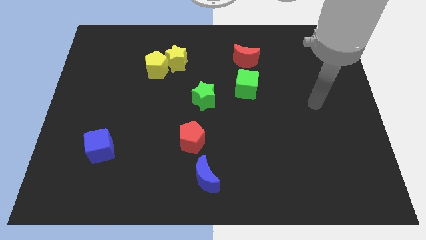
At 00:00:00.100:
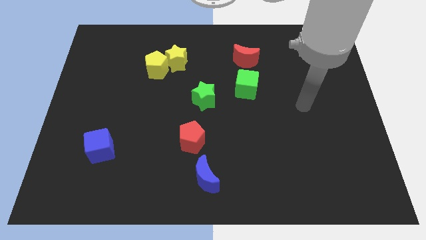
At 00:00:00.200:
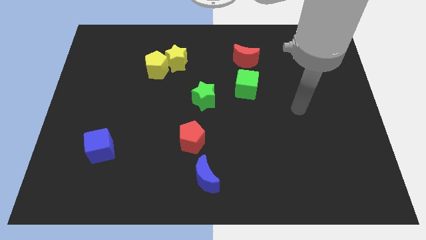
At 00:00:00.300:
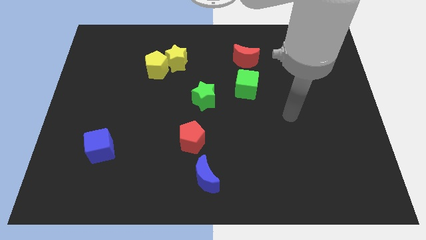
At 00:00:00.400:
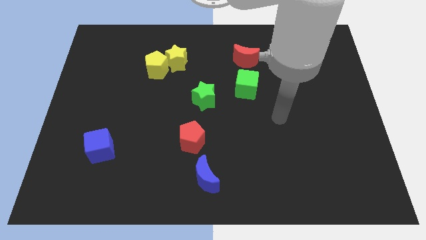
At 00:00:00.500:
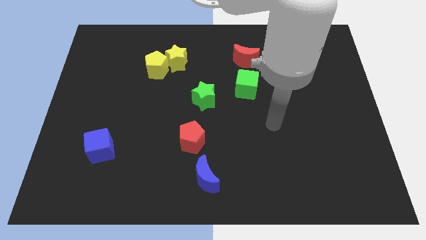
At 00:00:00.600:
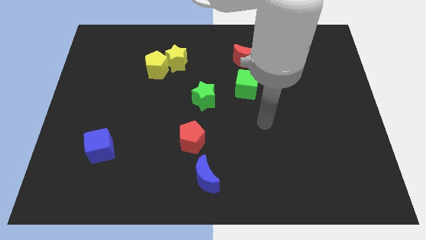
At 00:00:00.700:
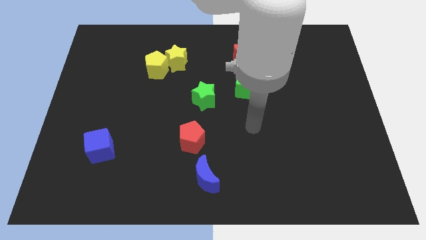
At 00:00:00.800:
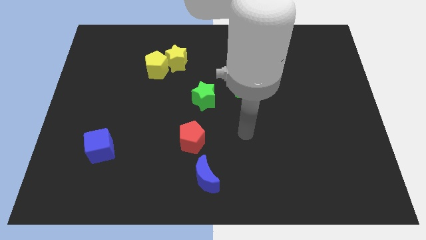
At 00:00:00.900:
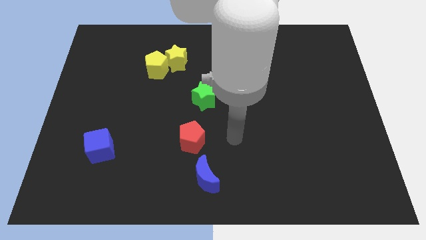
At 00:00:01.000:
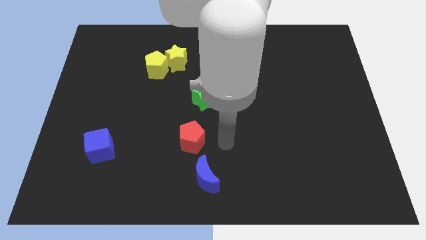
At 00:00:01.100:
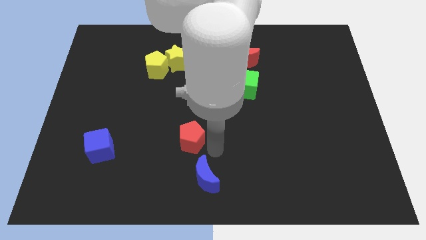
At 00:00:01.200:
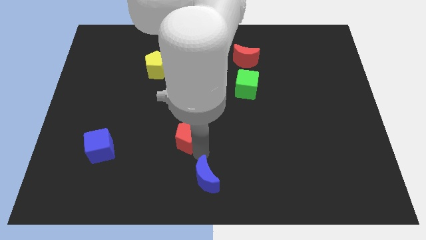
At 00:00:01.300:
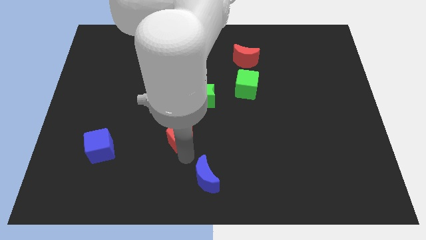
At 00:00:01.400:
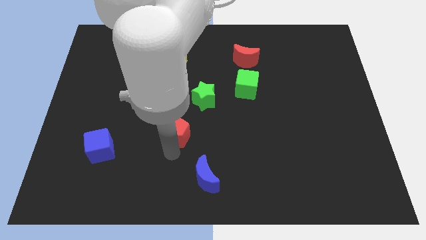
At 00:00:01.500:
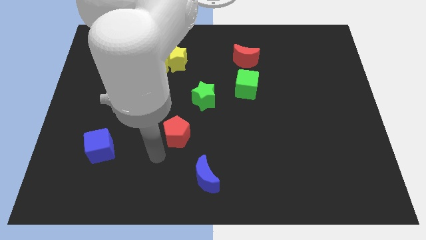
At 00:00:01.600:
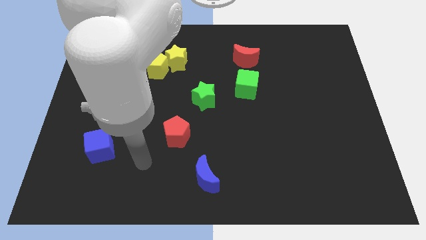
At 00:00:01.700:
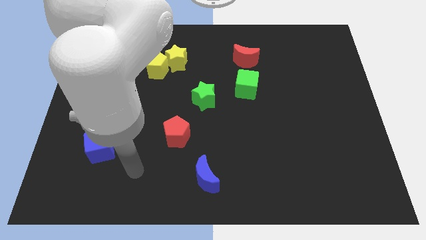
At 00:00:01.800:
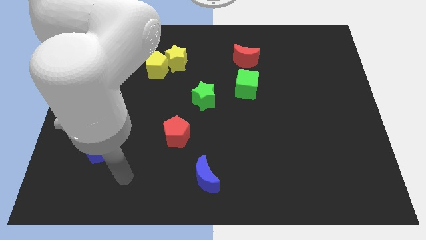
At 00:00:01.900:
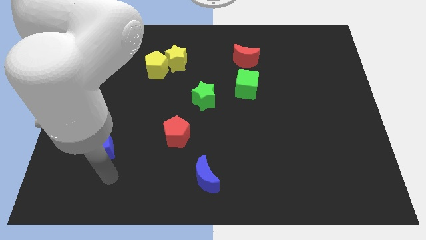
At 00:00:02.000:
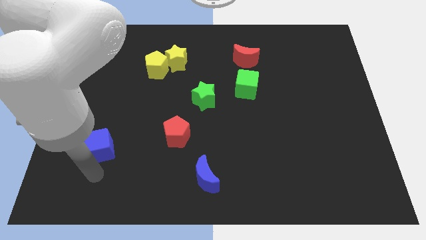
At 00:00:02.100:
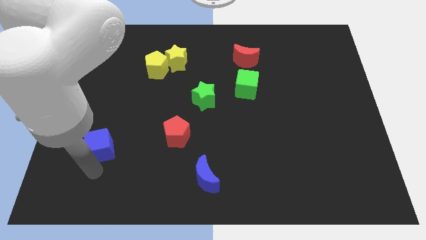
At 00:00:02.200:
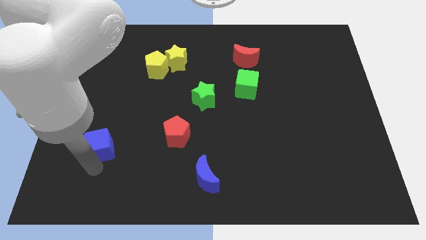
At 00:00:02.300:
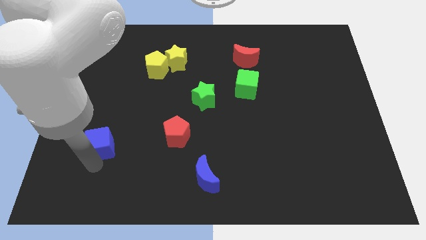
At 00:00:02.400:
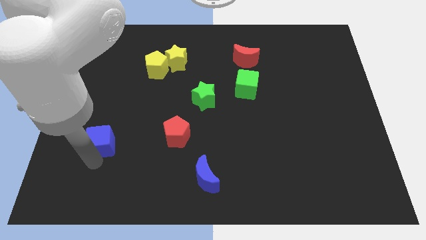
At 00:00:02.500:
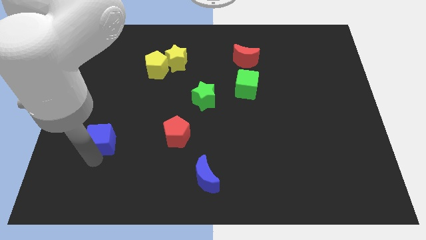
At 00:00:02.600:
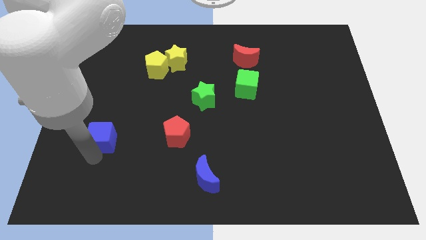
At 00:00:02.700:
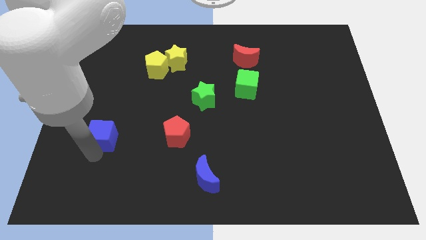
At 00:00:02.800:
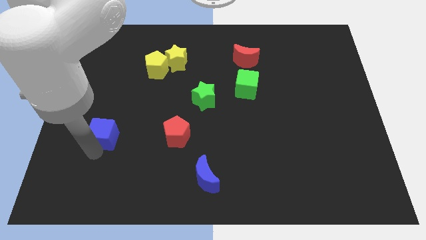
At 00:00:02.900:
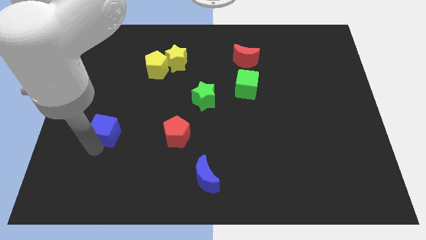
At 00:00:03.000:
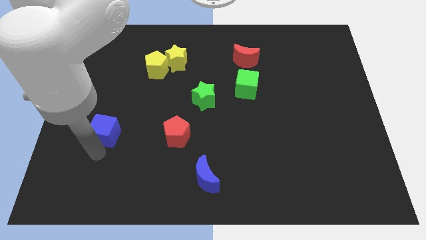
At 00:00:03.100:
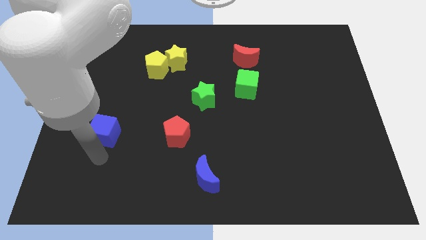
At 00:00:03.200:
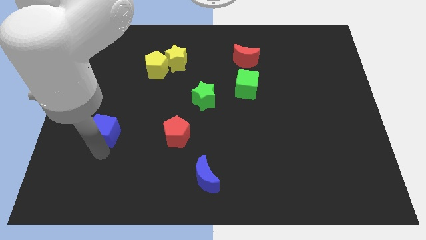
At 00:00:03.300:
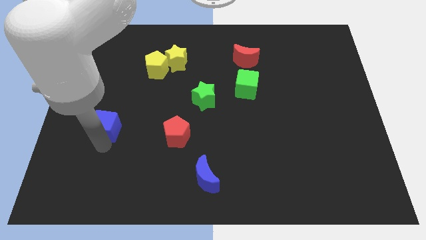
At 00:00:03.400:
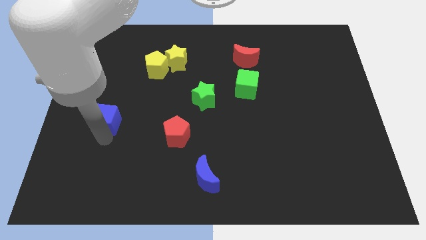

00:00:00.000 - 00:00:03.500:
slide the blue cube a little up

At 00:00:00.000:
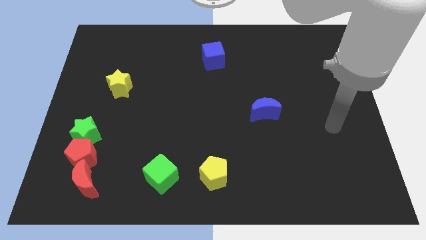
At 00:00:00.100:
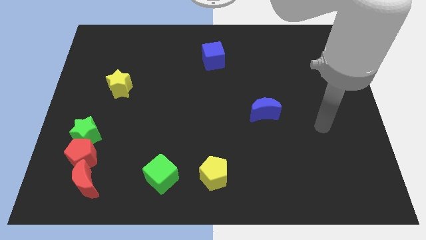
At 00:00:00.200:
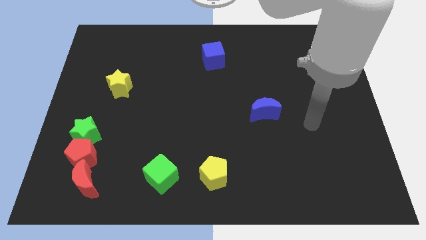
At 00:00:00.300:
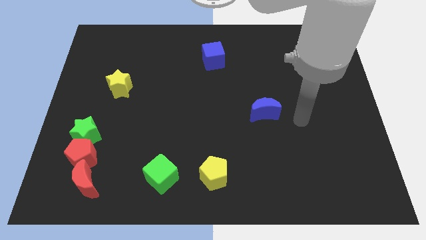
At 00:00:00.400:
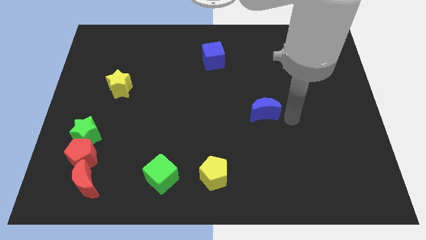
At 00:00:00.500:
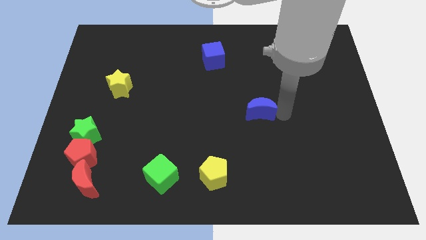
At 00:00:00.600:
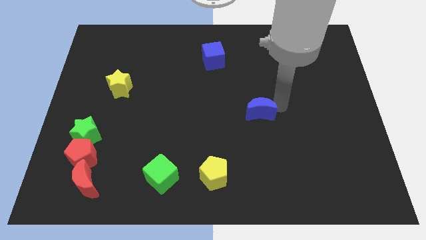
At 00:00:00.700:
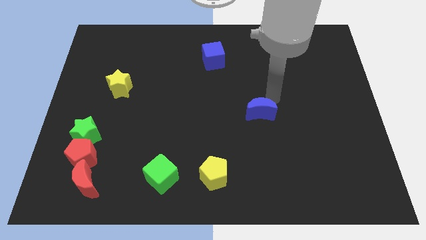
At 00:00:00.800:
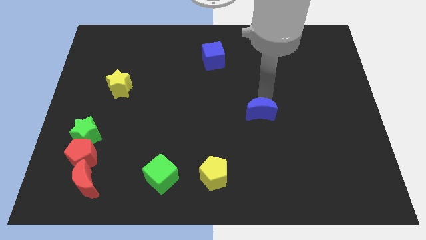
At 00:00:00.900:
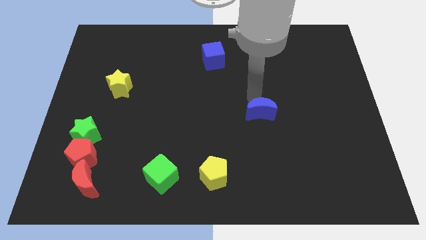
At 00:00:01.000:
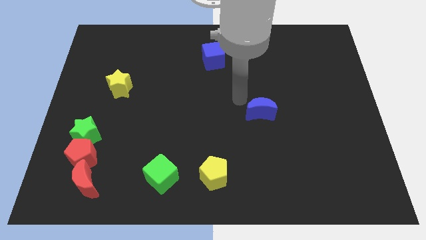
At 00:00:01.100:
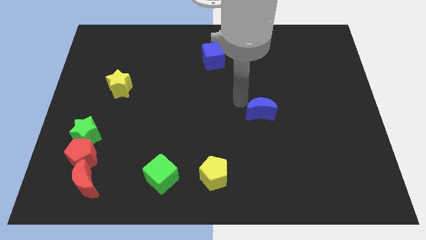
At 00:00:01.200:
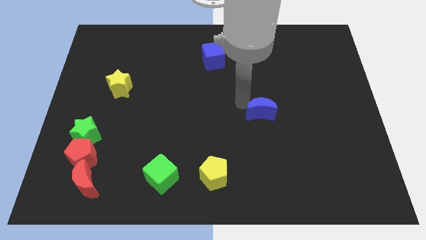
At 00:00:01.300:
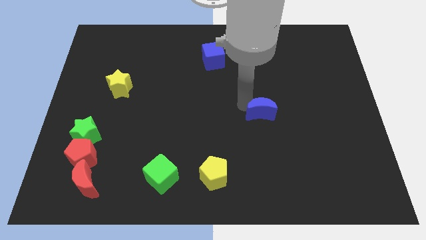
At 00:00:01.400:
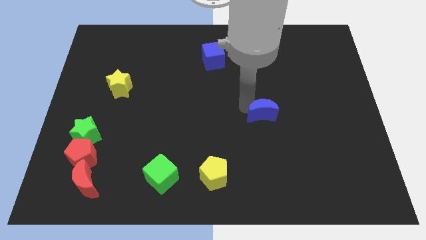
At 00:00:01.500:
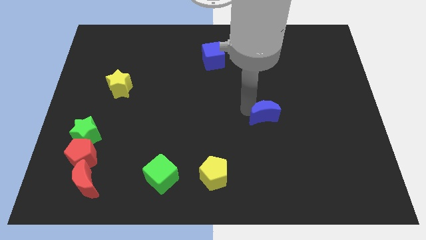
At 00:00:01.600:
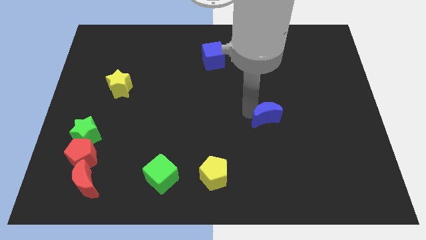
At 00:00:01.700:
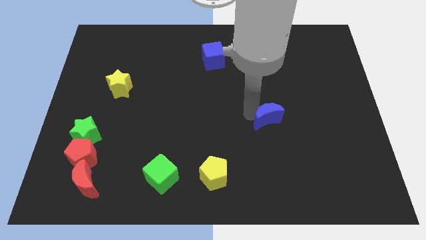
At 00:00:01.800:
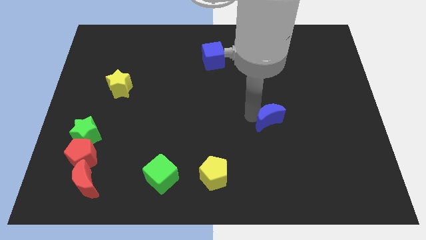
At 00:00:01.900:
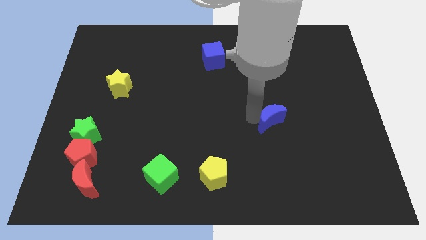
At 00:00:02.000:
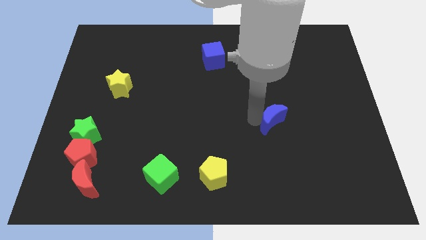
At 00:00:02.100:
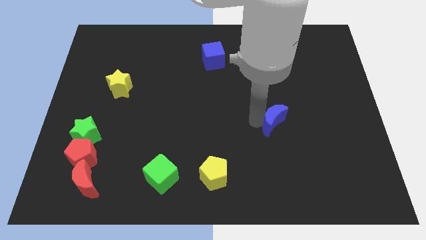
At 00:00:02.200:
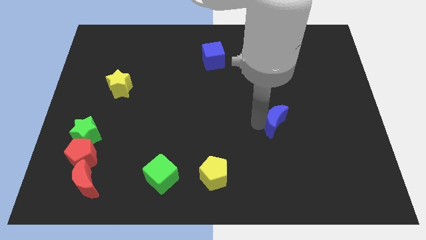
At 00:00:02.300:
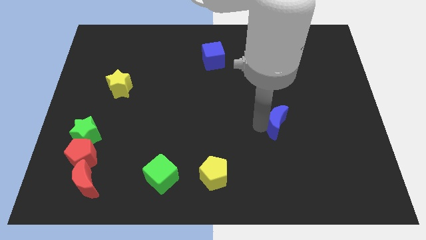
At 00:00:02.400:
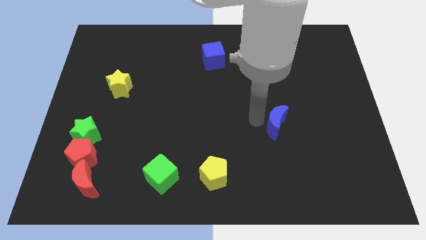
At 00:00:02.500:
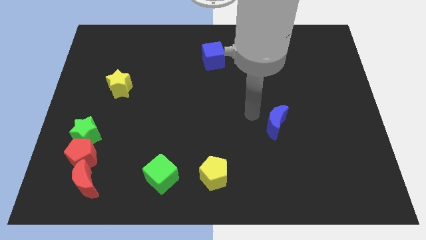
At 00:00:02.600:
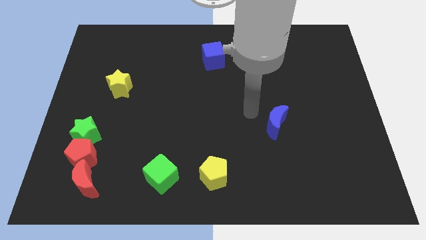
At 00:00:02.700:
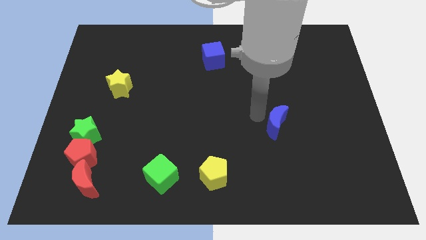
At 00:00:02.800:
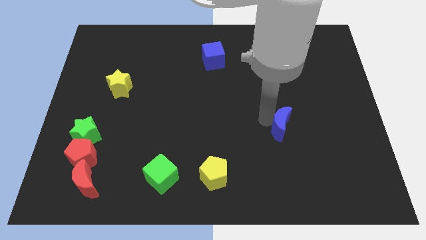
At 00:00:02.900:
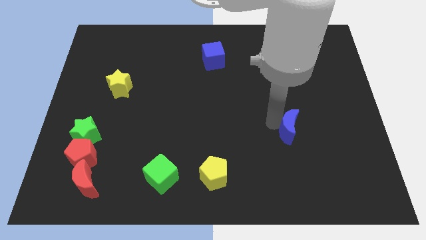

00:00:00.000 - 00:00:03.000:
slightly move the blue moon down and then to the right

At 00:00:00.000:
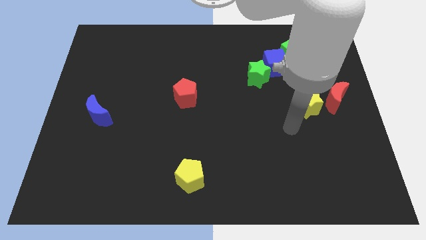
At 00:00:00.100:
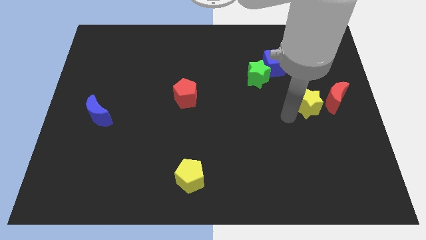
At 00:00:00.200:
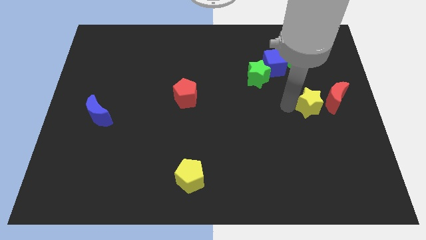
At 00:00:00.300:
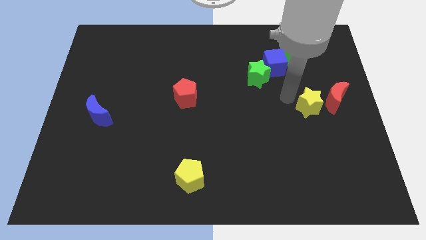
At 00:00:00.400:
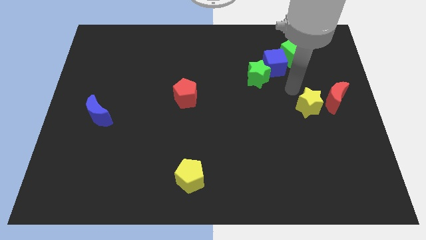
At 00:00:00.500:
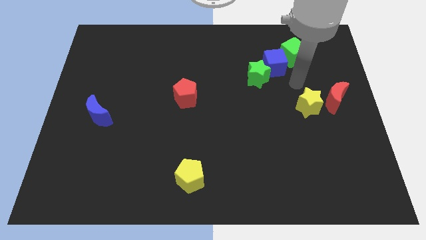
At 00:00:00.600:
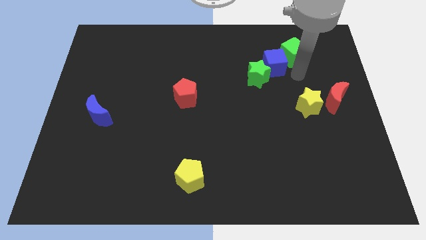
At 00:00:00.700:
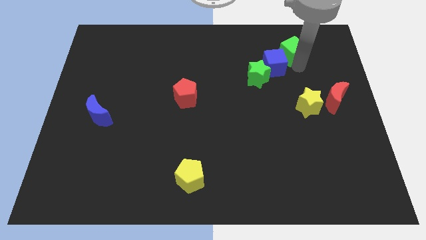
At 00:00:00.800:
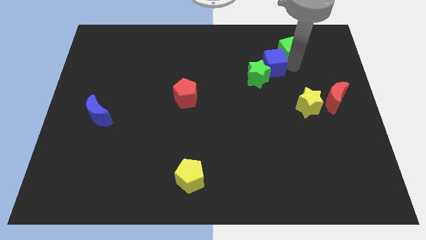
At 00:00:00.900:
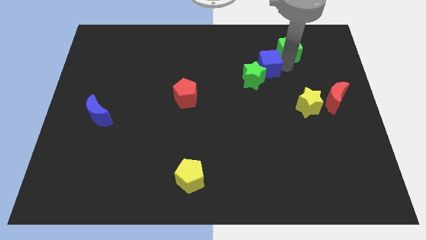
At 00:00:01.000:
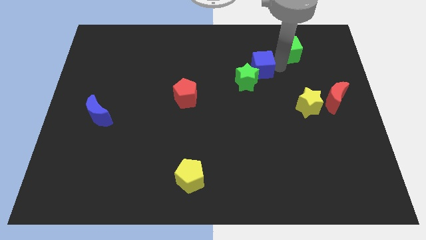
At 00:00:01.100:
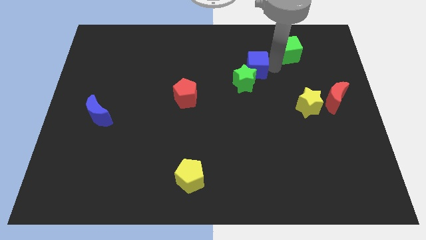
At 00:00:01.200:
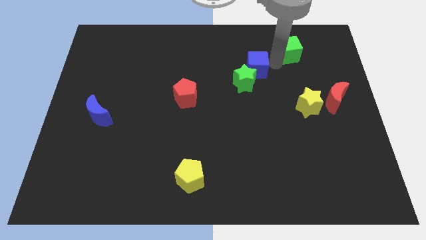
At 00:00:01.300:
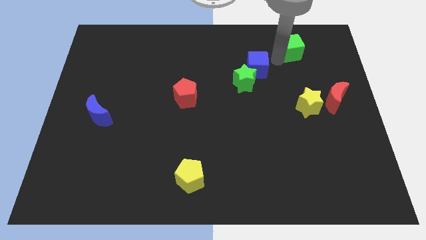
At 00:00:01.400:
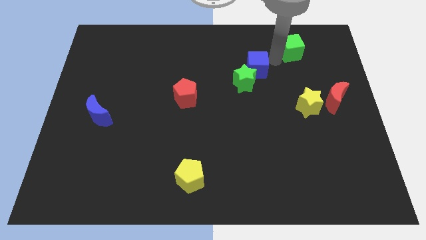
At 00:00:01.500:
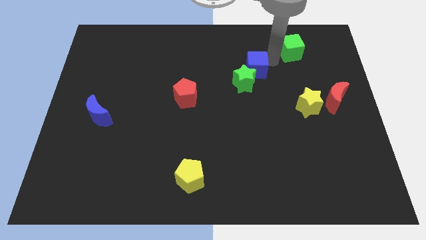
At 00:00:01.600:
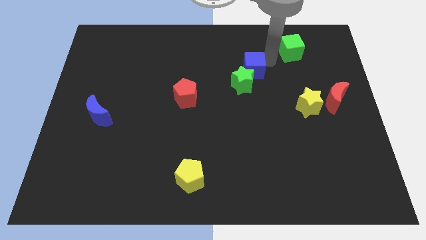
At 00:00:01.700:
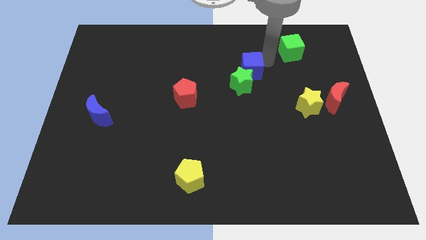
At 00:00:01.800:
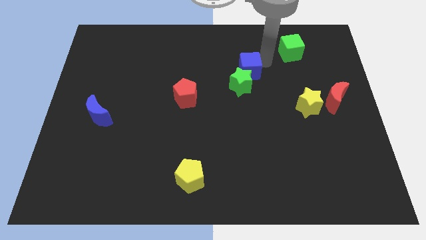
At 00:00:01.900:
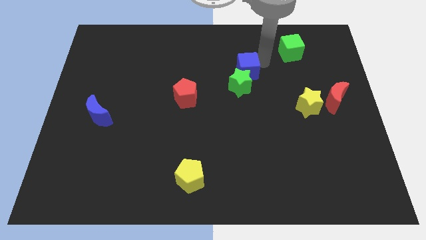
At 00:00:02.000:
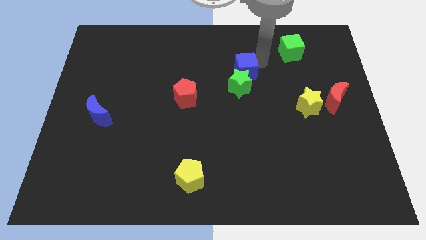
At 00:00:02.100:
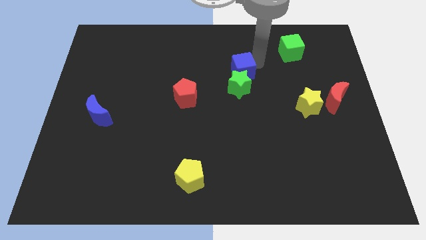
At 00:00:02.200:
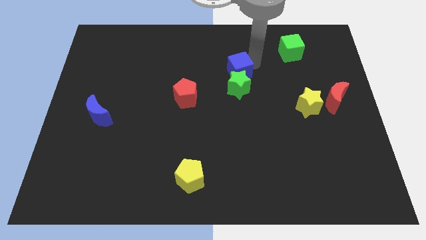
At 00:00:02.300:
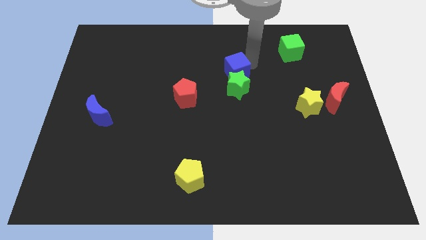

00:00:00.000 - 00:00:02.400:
slide the blue cube diagonally down and to the left somewhat
